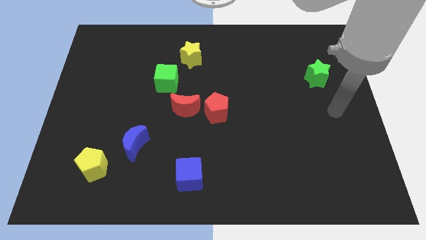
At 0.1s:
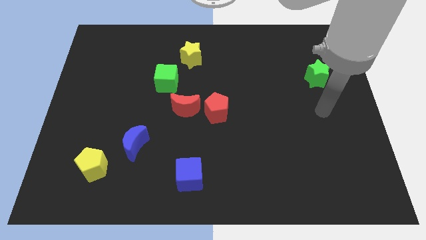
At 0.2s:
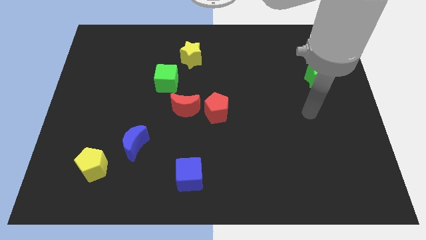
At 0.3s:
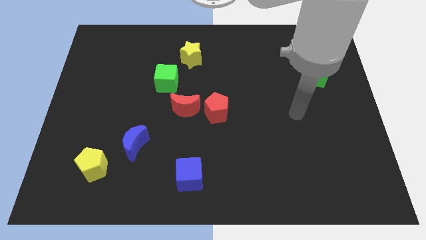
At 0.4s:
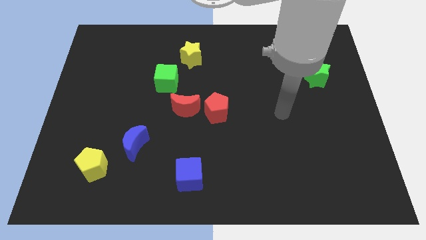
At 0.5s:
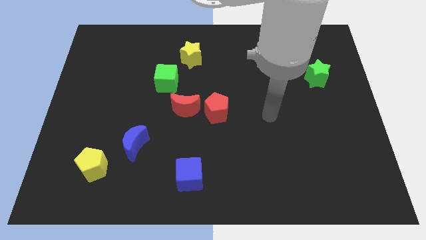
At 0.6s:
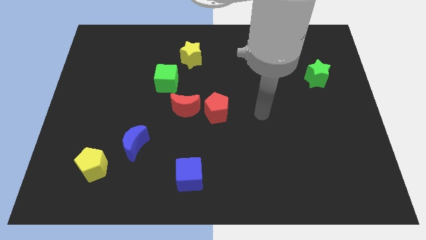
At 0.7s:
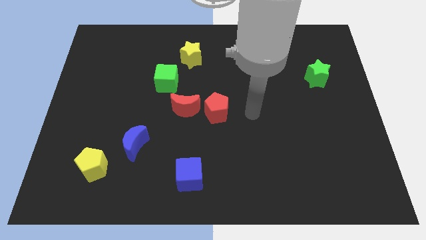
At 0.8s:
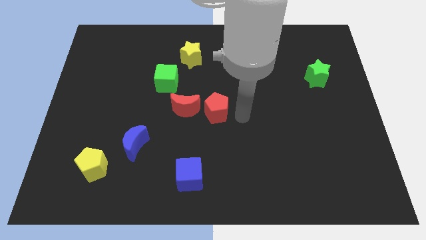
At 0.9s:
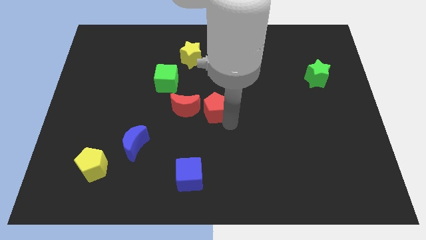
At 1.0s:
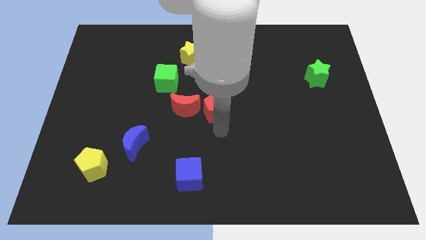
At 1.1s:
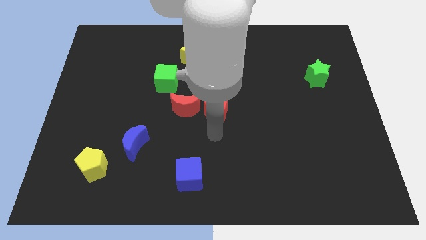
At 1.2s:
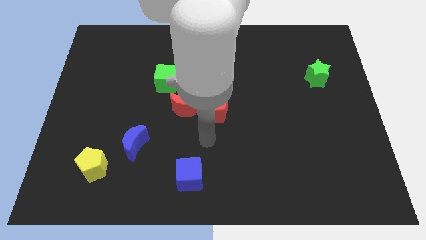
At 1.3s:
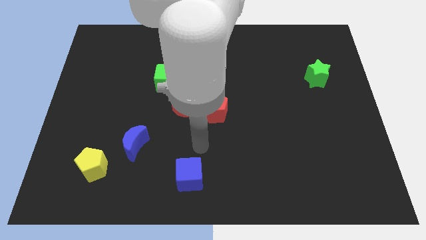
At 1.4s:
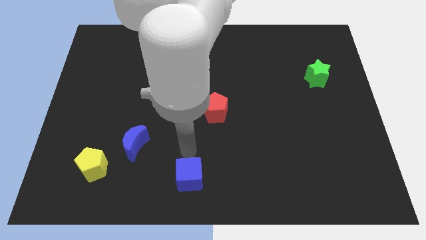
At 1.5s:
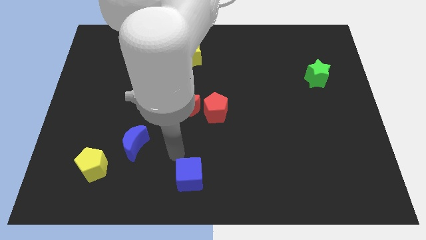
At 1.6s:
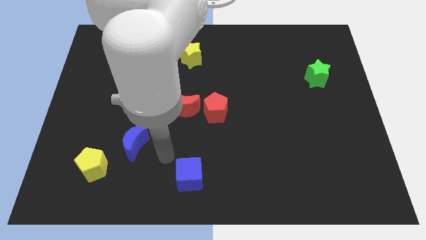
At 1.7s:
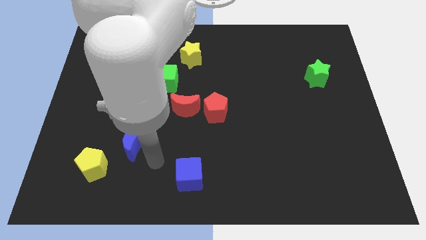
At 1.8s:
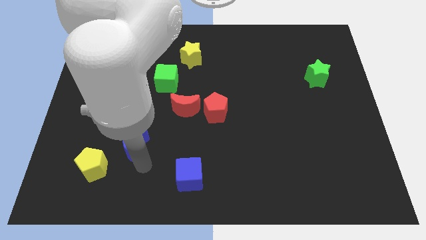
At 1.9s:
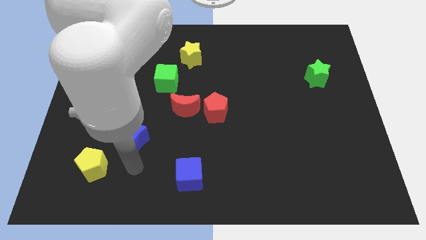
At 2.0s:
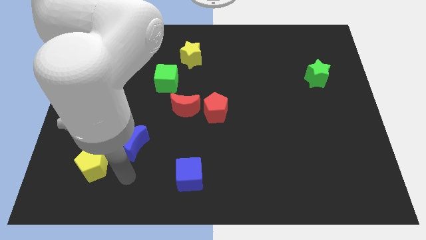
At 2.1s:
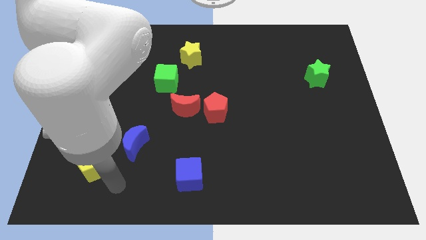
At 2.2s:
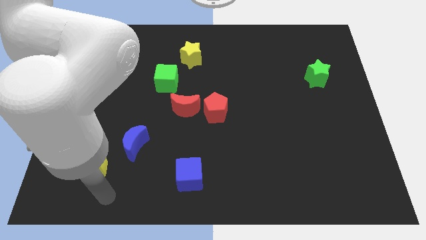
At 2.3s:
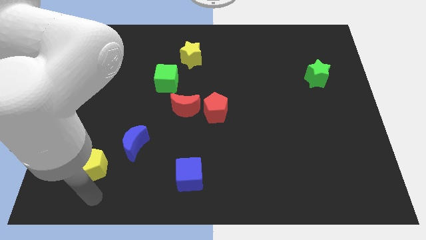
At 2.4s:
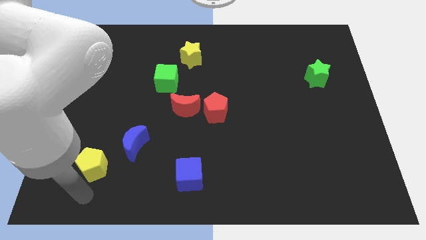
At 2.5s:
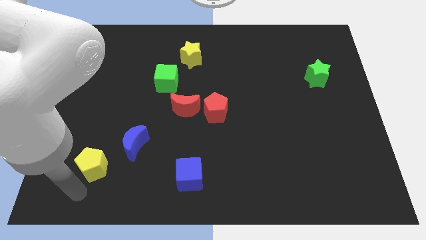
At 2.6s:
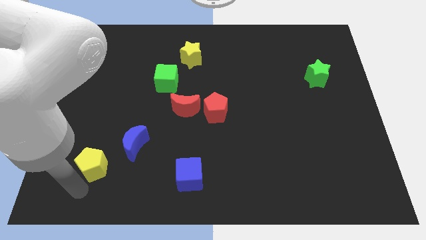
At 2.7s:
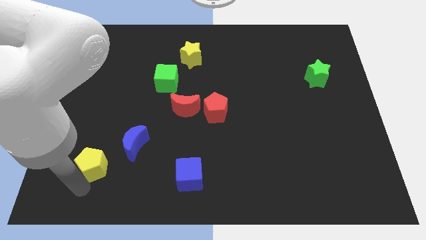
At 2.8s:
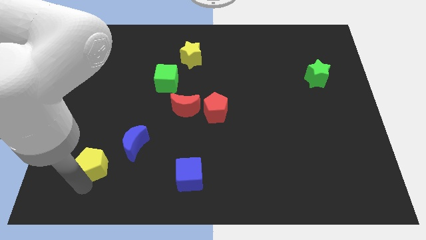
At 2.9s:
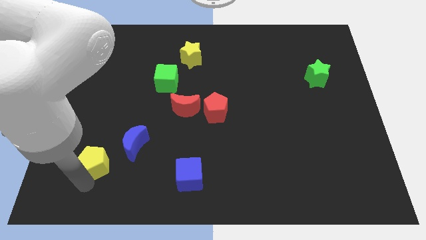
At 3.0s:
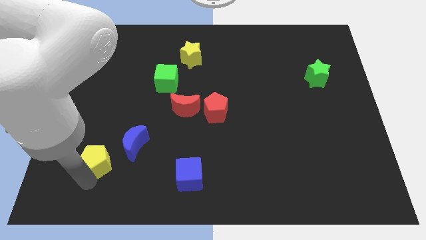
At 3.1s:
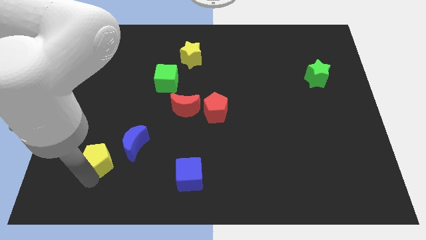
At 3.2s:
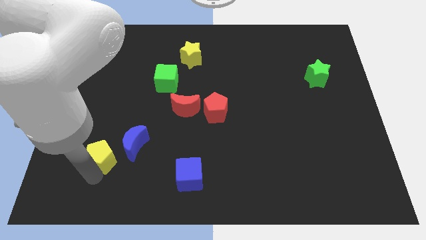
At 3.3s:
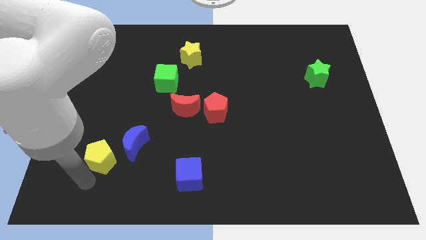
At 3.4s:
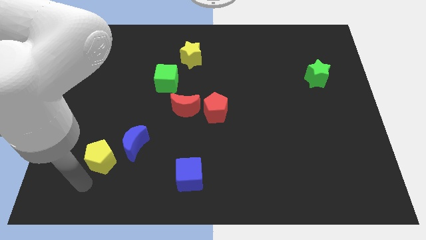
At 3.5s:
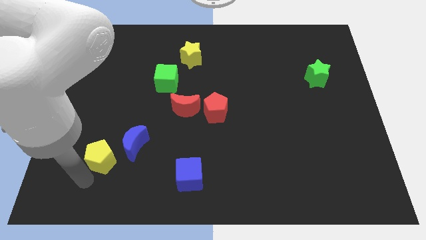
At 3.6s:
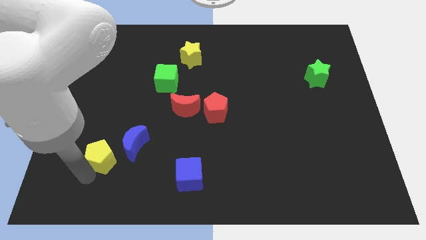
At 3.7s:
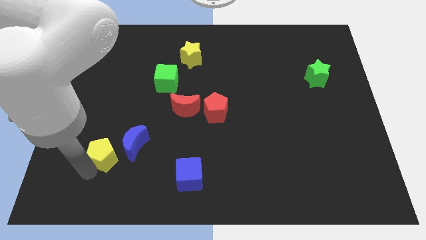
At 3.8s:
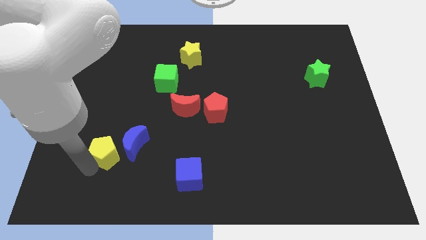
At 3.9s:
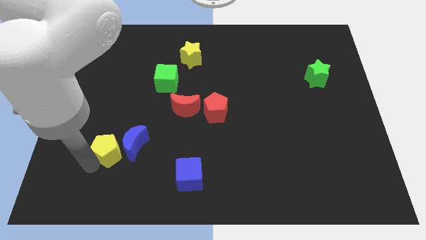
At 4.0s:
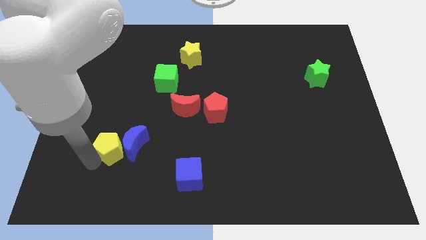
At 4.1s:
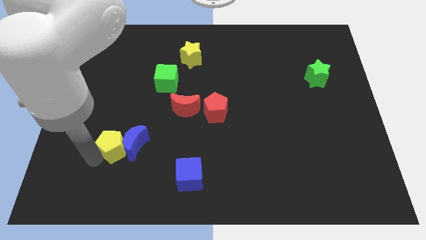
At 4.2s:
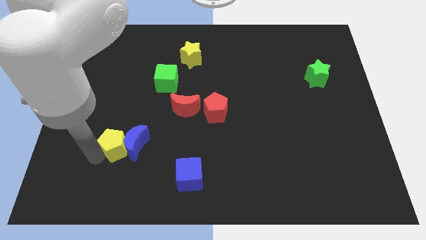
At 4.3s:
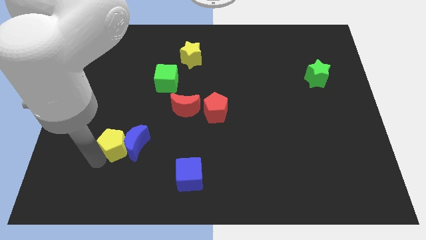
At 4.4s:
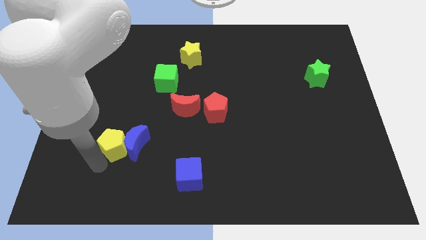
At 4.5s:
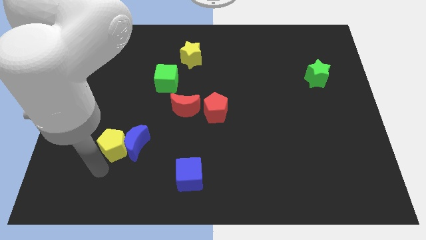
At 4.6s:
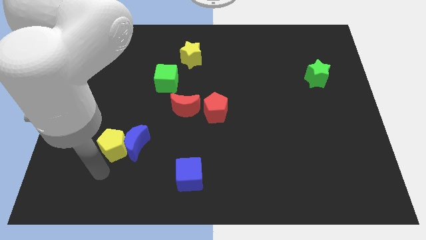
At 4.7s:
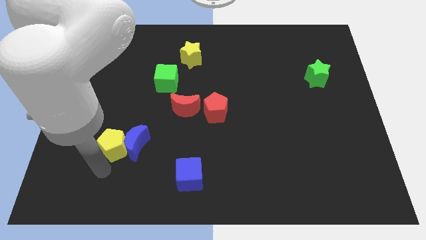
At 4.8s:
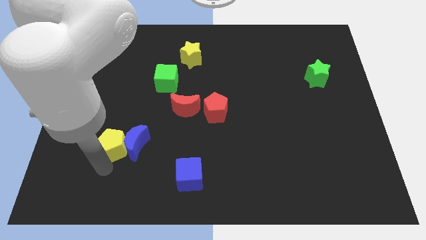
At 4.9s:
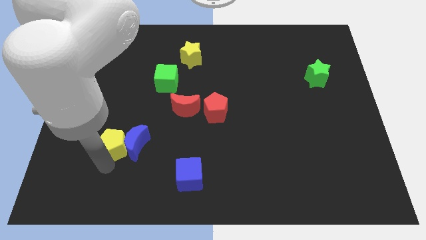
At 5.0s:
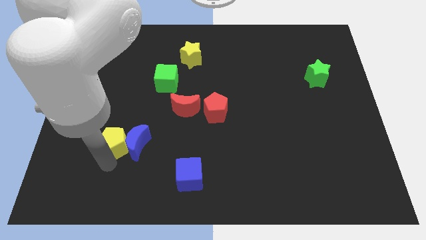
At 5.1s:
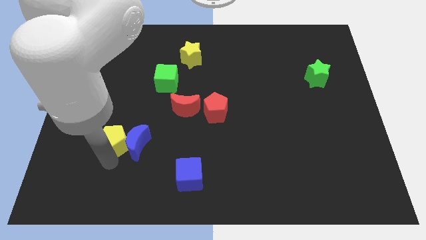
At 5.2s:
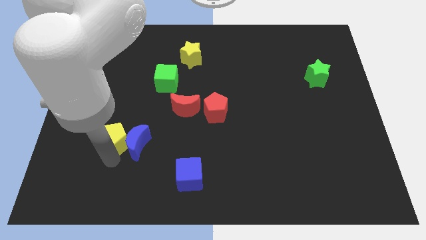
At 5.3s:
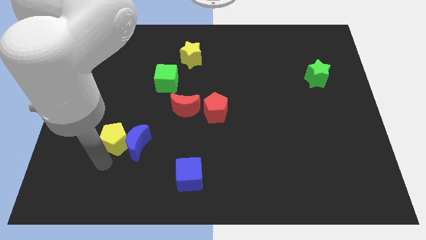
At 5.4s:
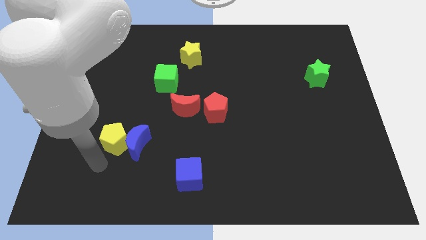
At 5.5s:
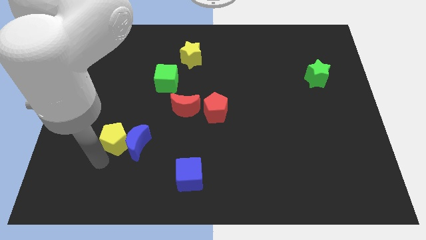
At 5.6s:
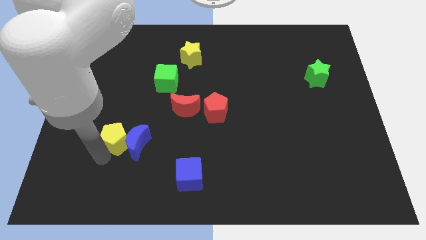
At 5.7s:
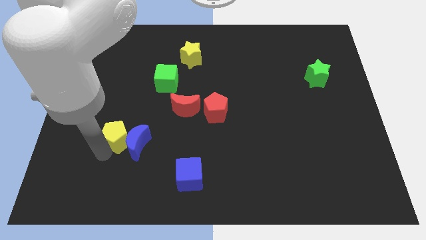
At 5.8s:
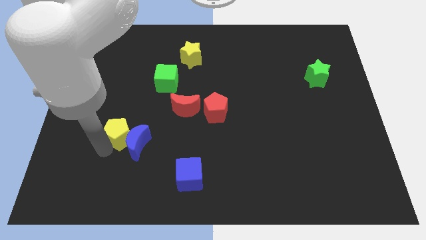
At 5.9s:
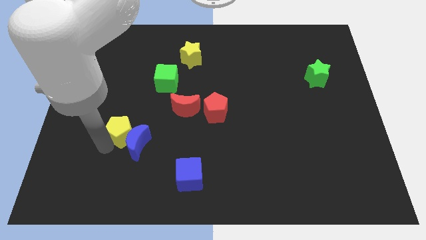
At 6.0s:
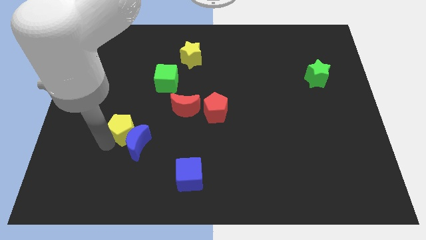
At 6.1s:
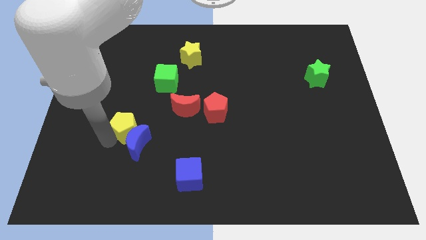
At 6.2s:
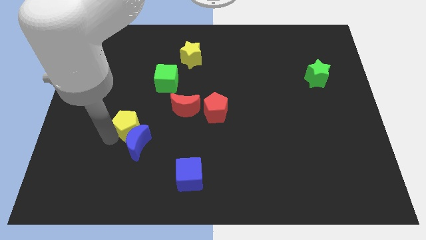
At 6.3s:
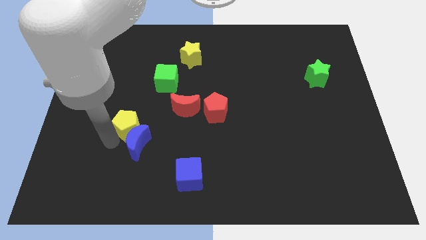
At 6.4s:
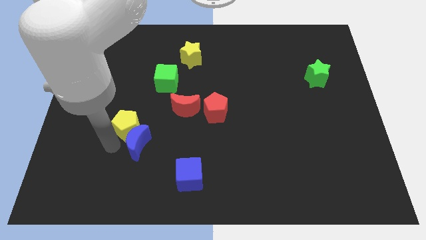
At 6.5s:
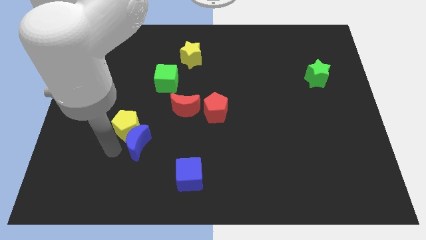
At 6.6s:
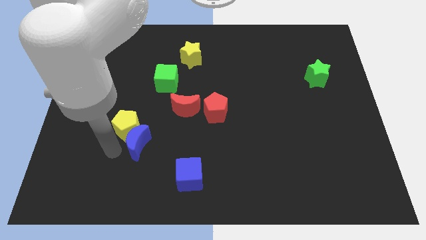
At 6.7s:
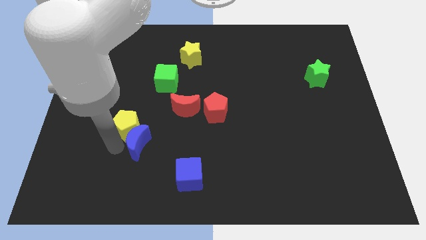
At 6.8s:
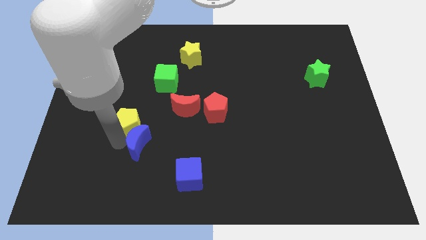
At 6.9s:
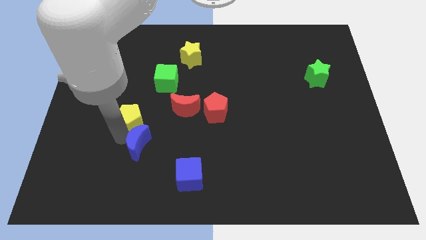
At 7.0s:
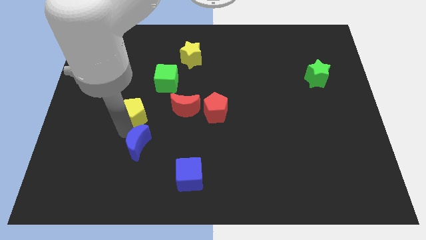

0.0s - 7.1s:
slide the yellow pentagon diagonally down and to the left of the green cube
